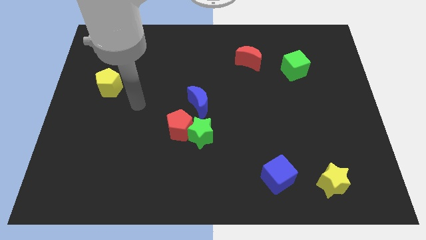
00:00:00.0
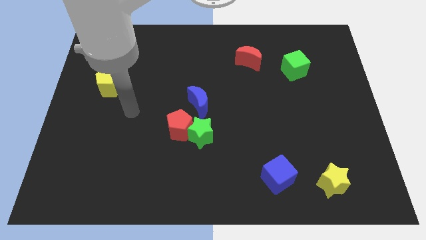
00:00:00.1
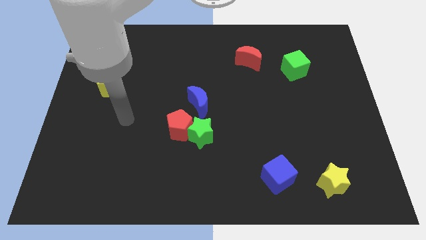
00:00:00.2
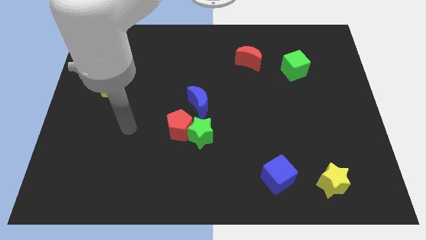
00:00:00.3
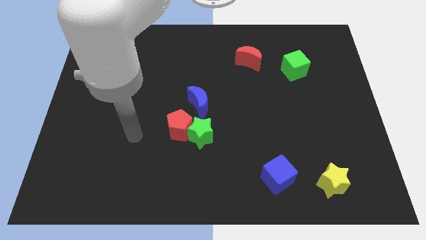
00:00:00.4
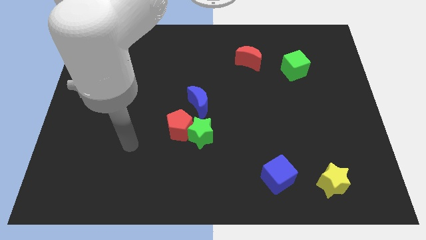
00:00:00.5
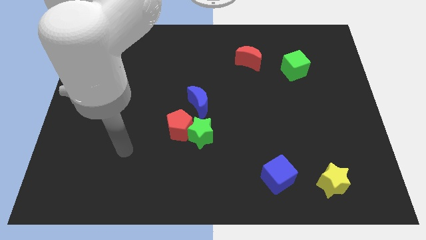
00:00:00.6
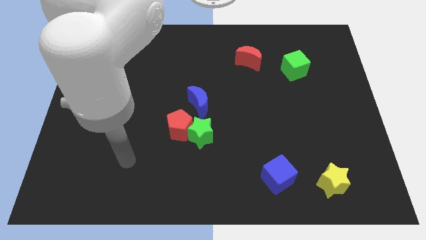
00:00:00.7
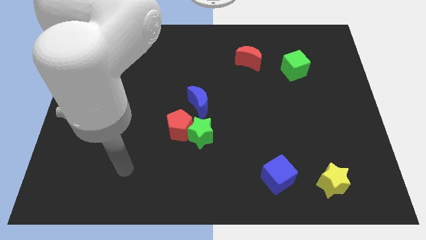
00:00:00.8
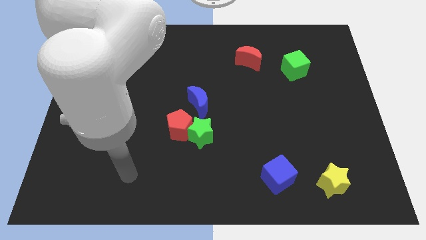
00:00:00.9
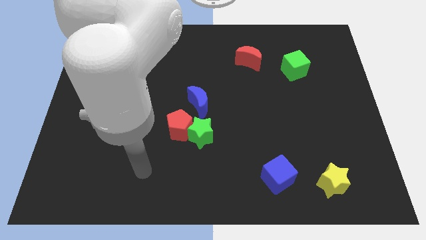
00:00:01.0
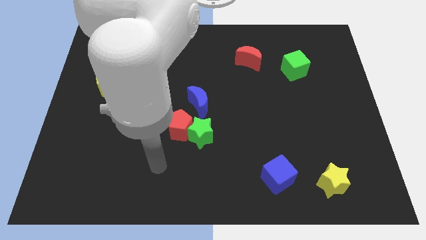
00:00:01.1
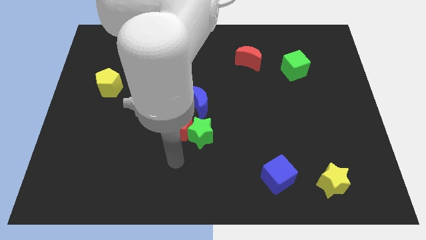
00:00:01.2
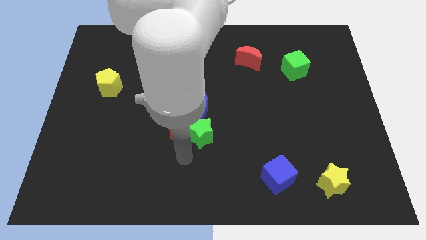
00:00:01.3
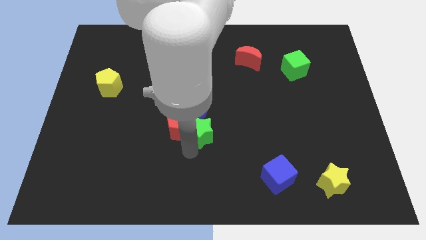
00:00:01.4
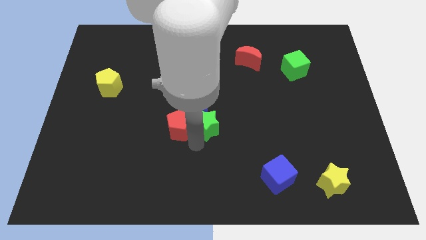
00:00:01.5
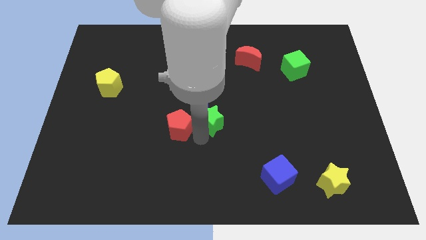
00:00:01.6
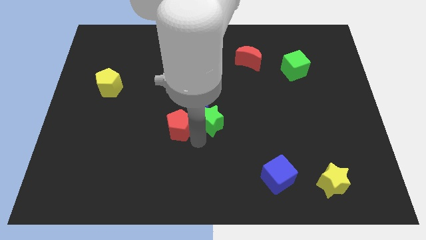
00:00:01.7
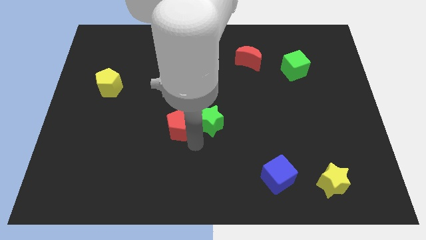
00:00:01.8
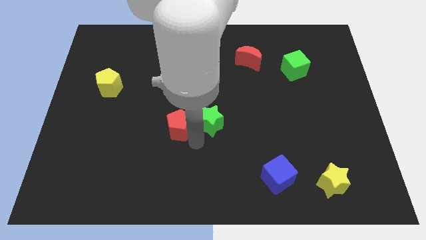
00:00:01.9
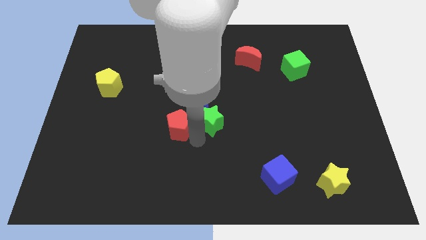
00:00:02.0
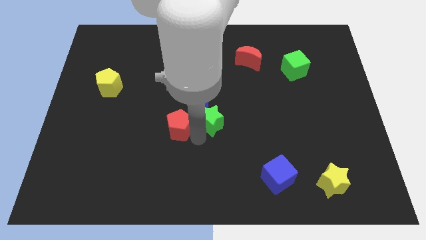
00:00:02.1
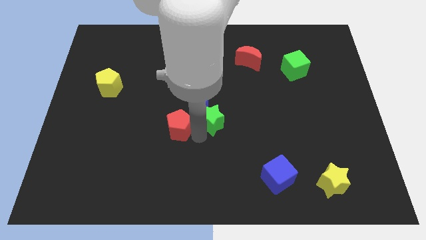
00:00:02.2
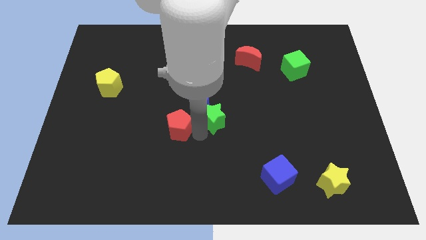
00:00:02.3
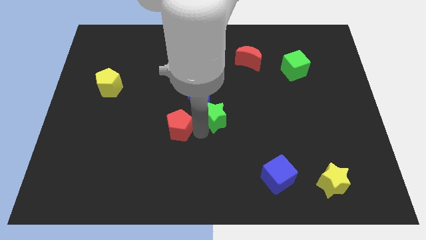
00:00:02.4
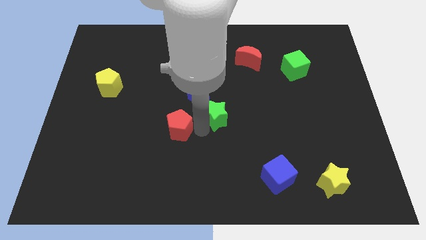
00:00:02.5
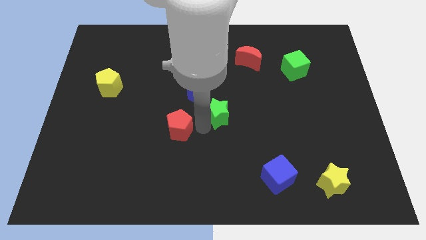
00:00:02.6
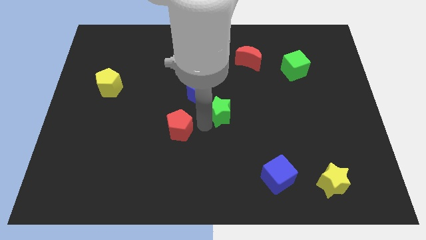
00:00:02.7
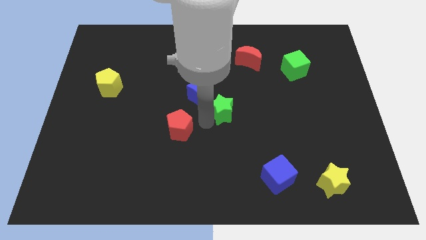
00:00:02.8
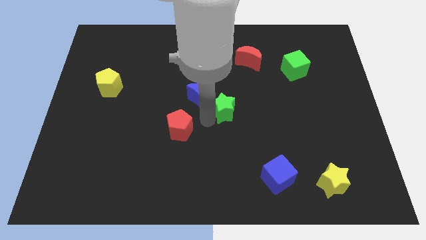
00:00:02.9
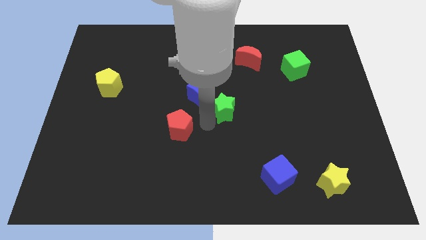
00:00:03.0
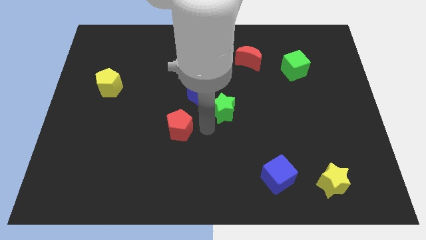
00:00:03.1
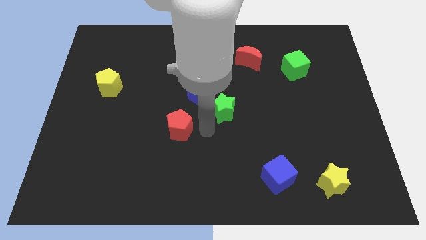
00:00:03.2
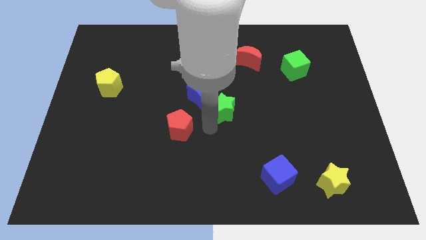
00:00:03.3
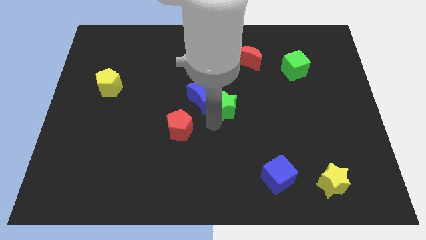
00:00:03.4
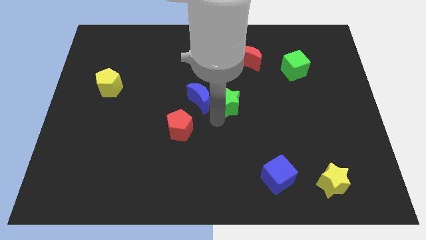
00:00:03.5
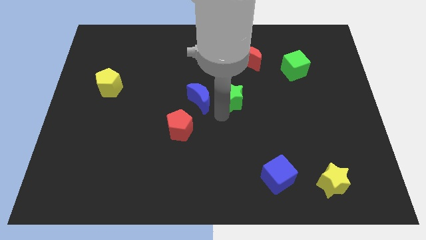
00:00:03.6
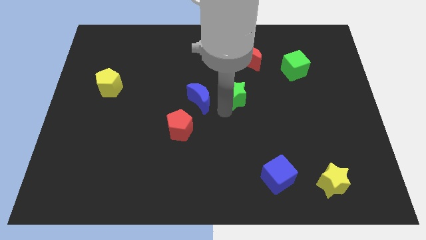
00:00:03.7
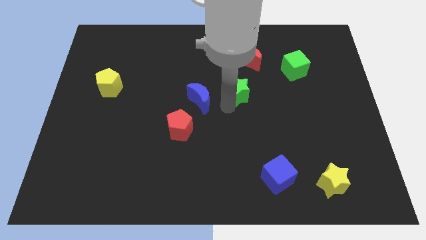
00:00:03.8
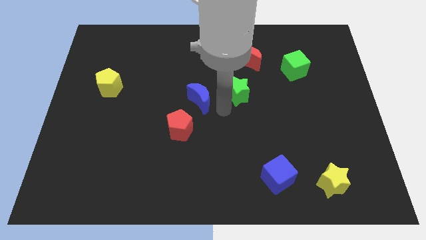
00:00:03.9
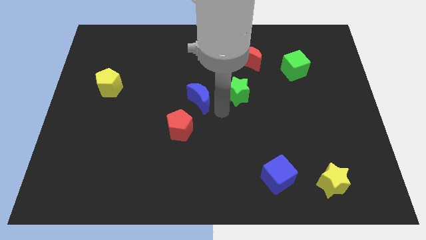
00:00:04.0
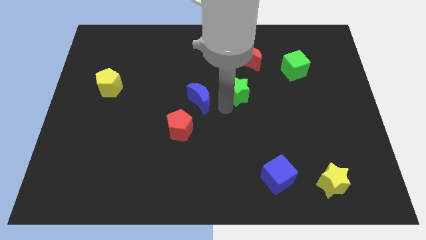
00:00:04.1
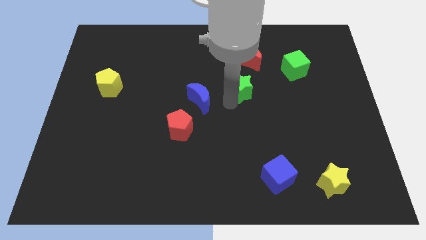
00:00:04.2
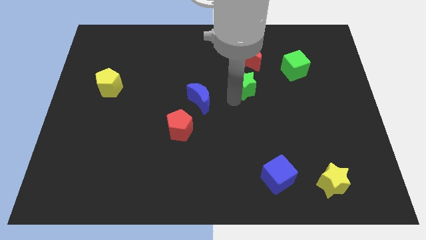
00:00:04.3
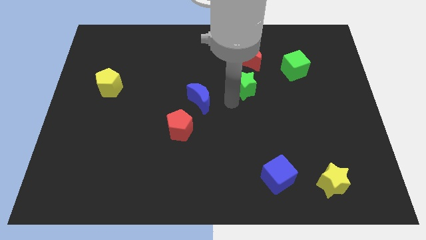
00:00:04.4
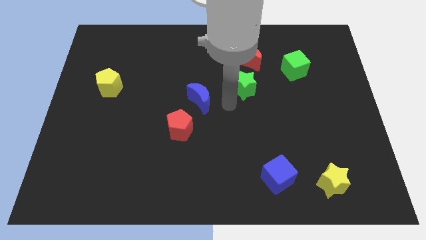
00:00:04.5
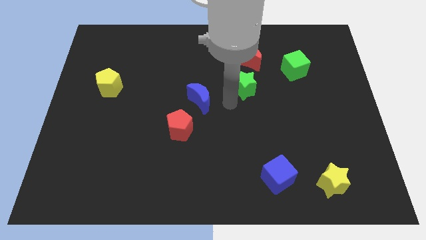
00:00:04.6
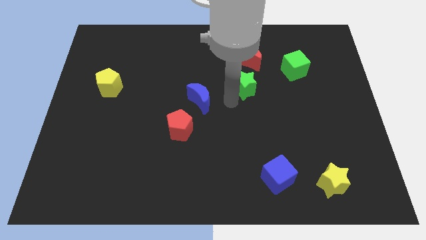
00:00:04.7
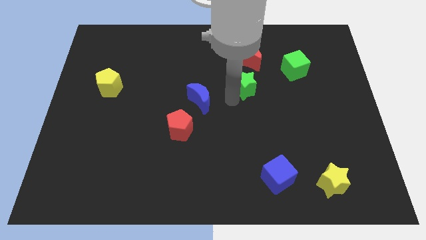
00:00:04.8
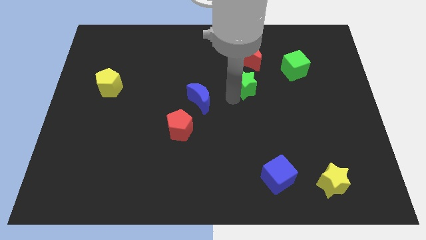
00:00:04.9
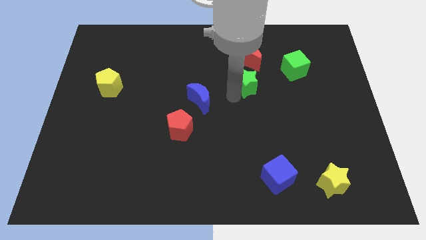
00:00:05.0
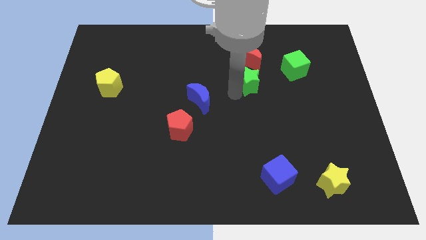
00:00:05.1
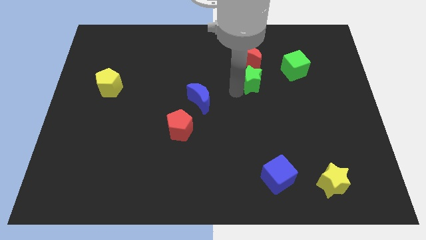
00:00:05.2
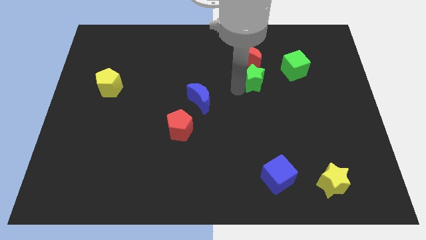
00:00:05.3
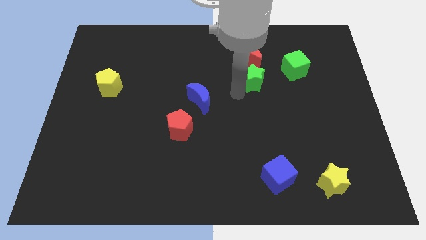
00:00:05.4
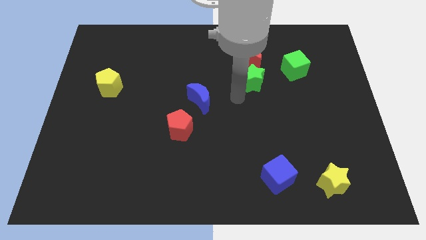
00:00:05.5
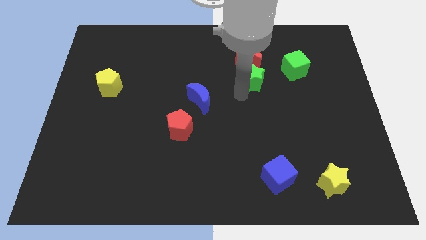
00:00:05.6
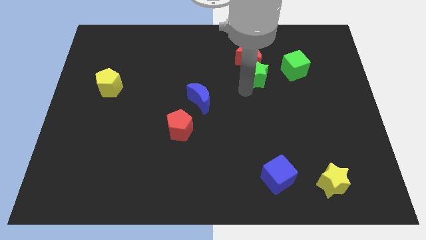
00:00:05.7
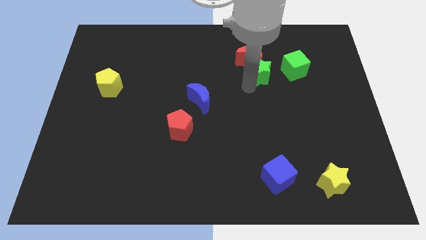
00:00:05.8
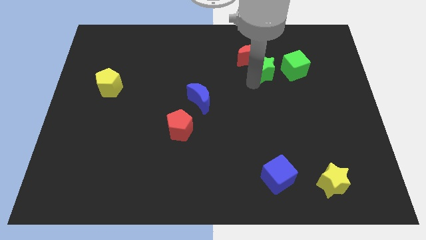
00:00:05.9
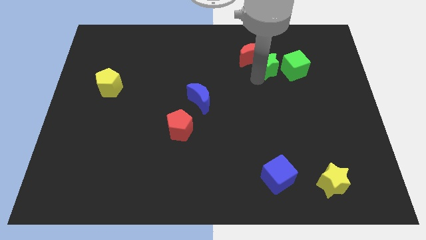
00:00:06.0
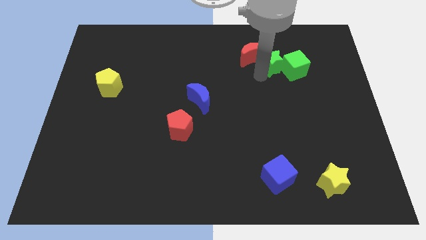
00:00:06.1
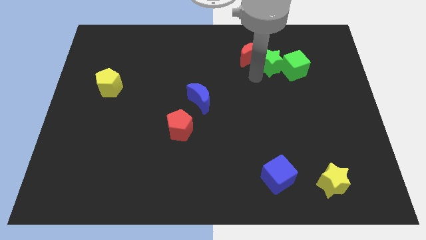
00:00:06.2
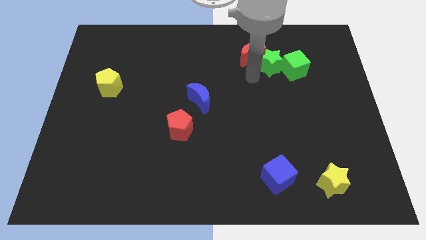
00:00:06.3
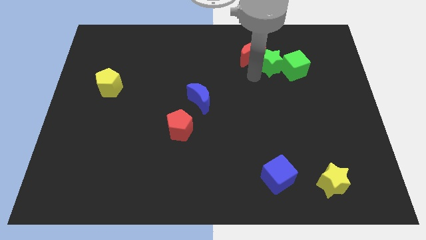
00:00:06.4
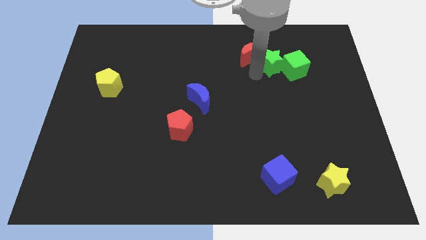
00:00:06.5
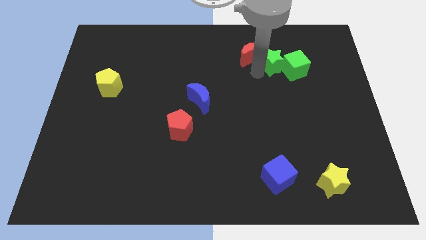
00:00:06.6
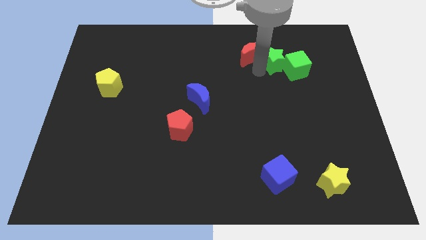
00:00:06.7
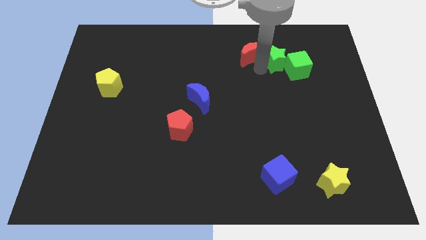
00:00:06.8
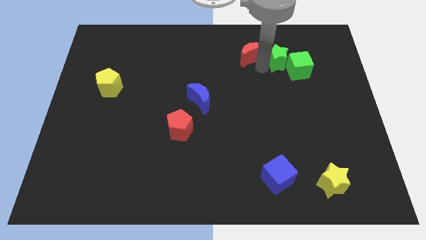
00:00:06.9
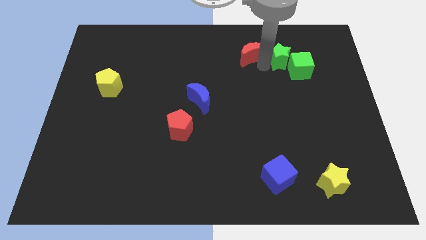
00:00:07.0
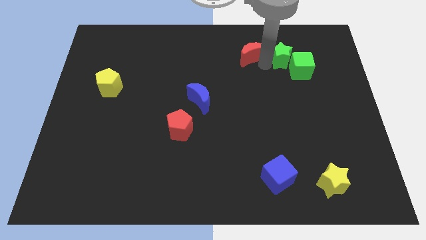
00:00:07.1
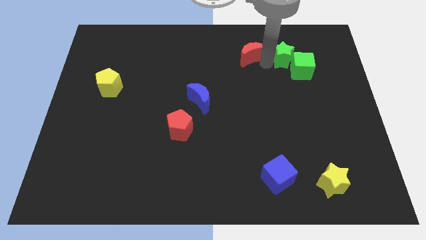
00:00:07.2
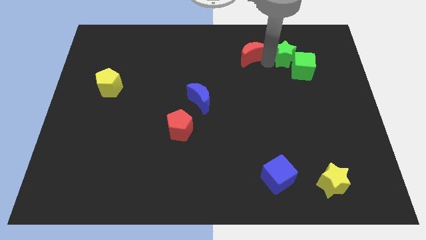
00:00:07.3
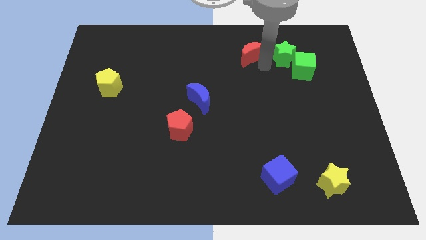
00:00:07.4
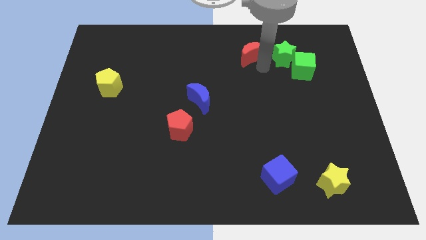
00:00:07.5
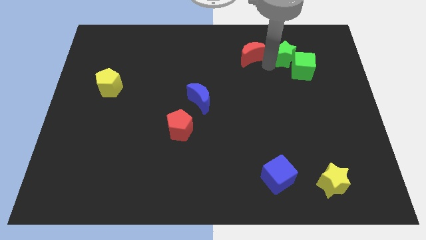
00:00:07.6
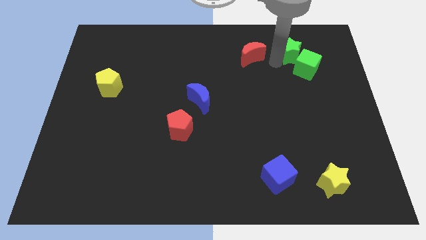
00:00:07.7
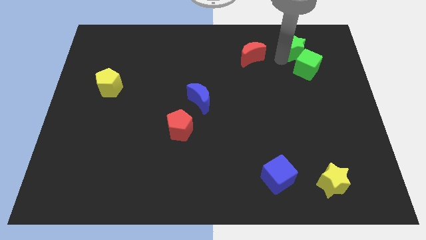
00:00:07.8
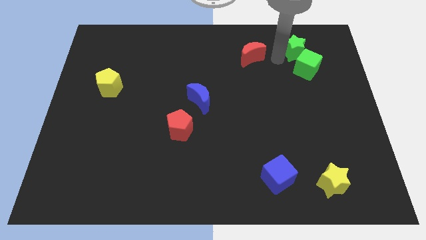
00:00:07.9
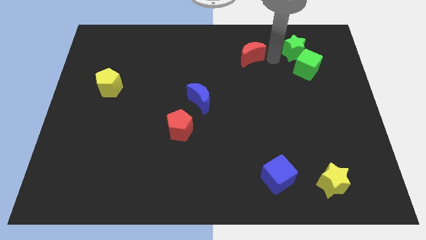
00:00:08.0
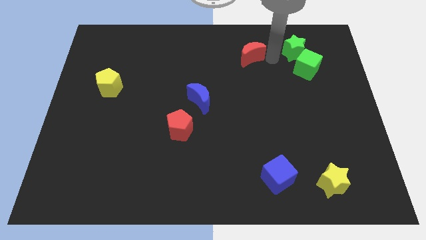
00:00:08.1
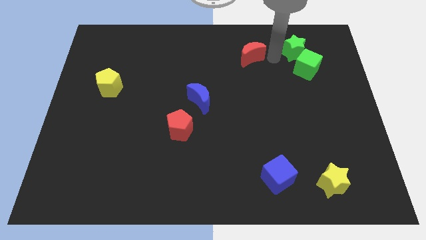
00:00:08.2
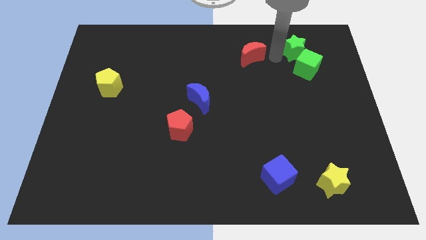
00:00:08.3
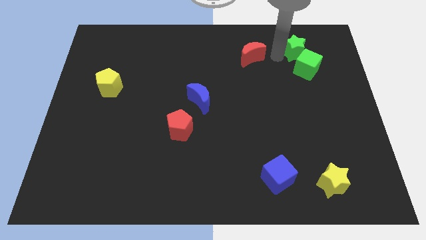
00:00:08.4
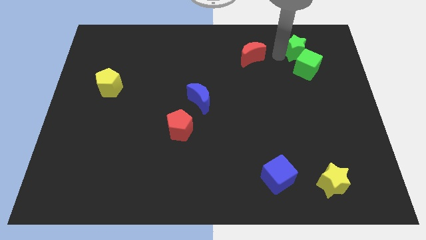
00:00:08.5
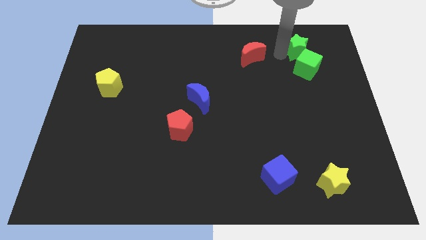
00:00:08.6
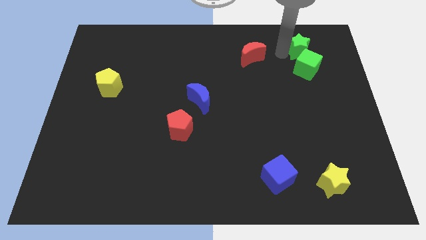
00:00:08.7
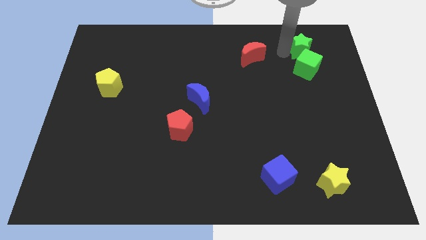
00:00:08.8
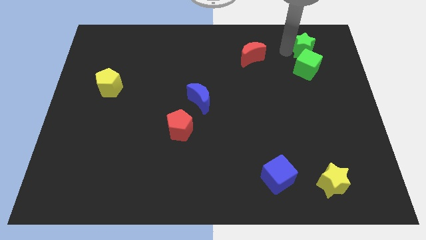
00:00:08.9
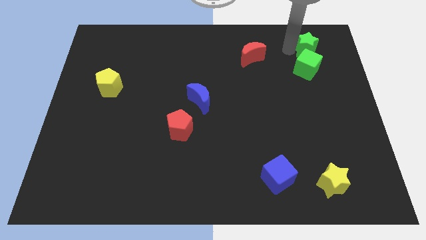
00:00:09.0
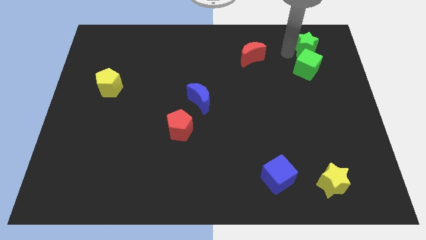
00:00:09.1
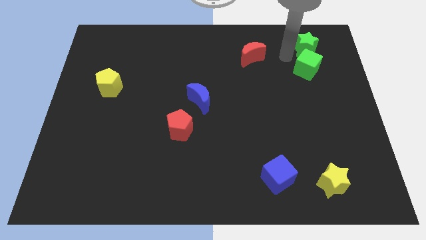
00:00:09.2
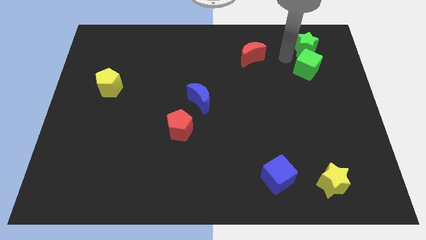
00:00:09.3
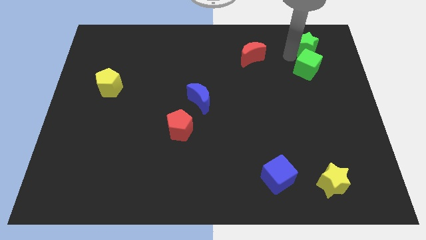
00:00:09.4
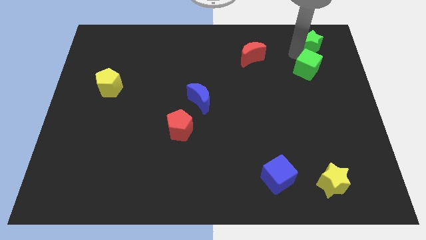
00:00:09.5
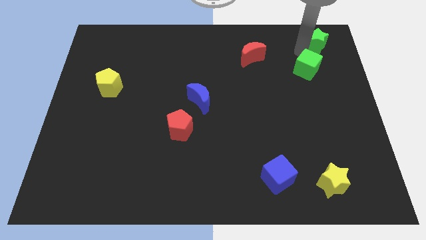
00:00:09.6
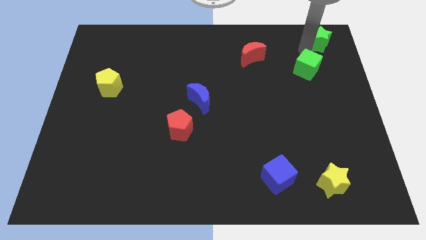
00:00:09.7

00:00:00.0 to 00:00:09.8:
push the green star to the top right of the board
